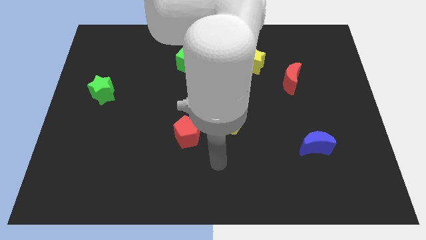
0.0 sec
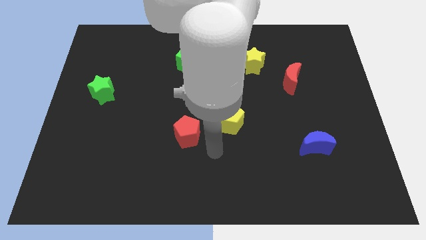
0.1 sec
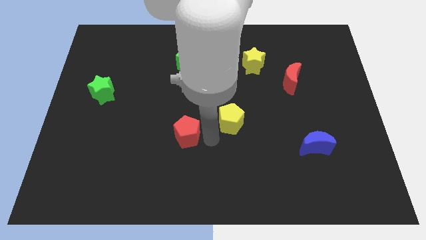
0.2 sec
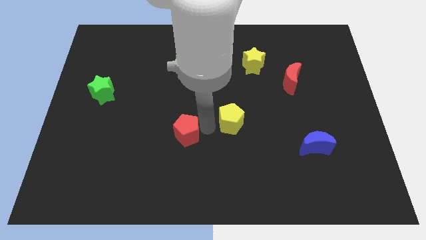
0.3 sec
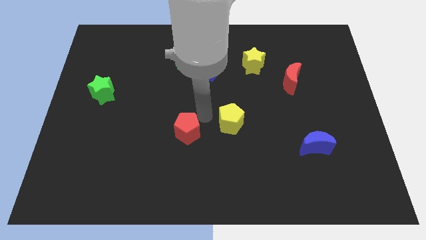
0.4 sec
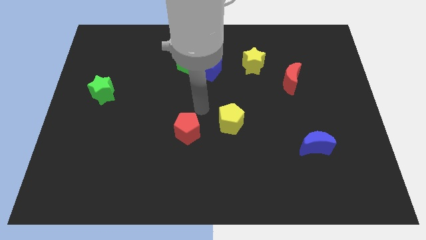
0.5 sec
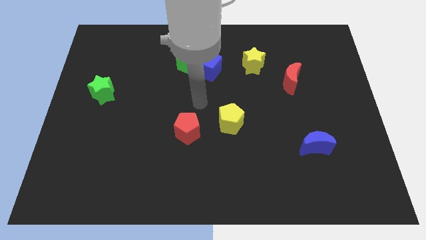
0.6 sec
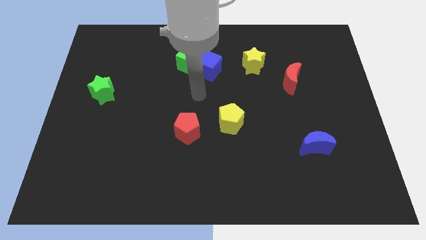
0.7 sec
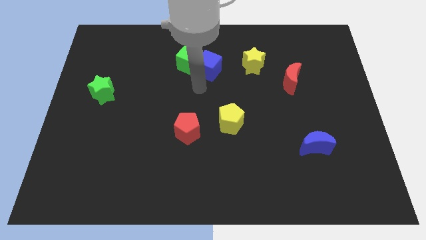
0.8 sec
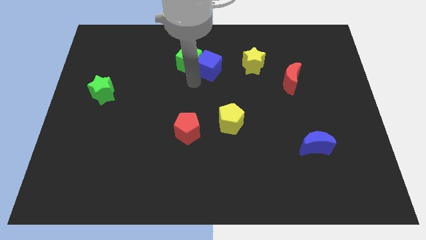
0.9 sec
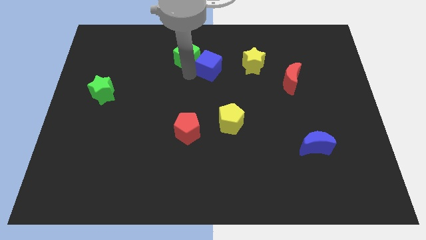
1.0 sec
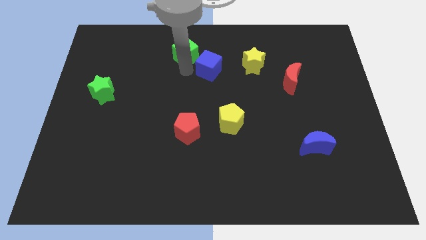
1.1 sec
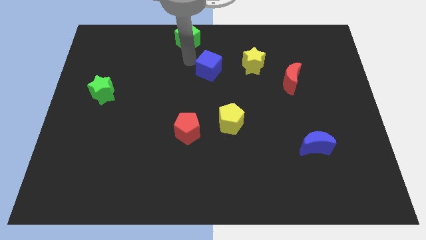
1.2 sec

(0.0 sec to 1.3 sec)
pull the blue cube apart from the green cube

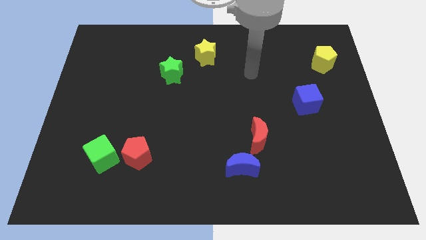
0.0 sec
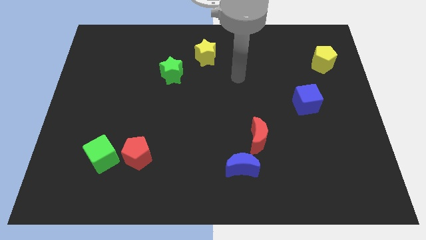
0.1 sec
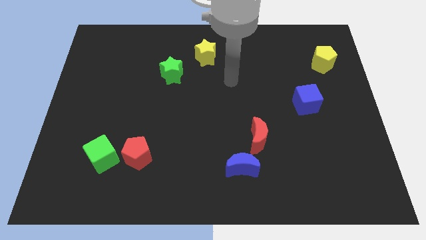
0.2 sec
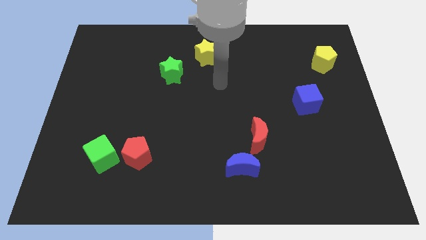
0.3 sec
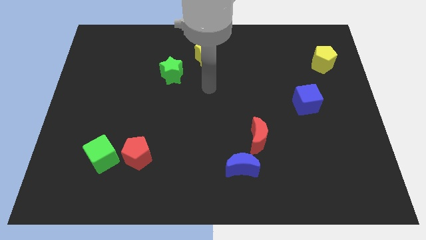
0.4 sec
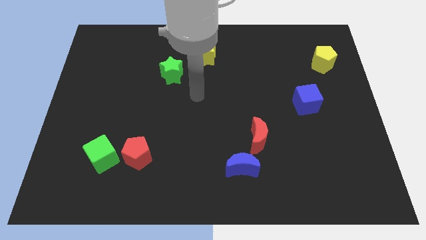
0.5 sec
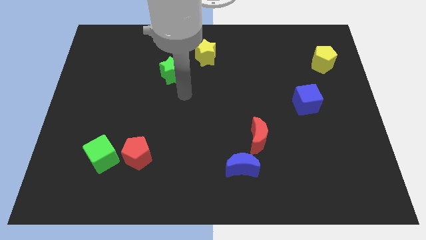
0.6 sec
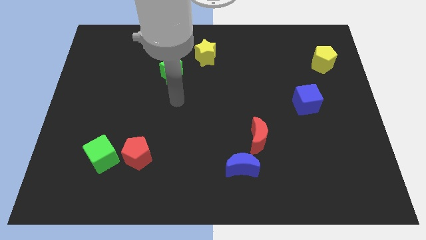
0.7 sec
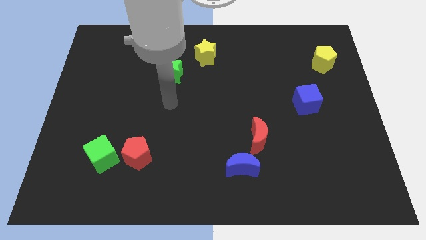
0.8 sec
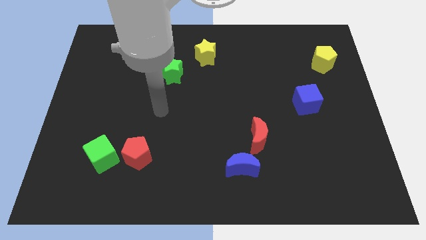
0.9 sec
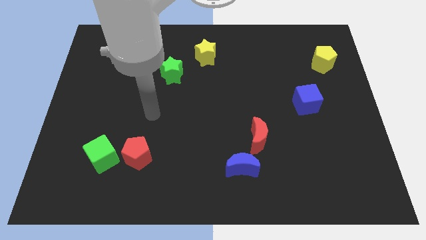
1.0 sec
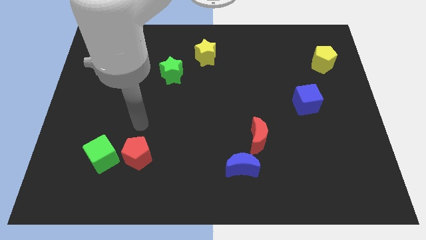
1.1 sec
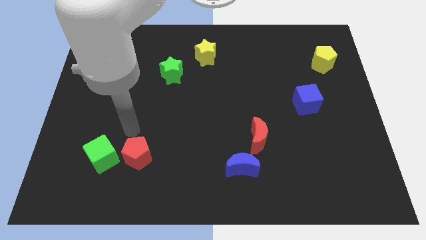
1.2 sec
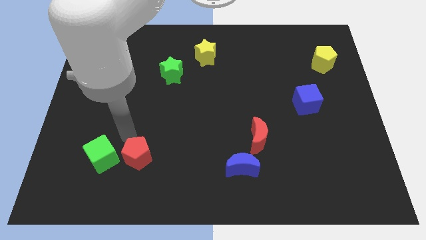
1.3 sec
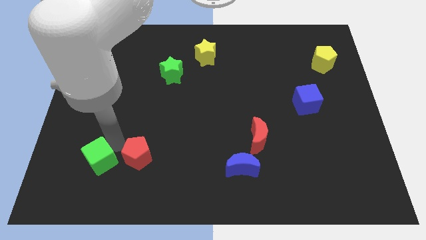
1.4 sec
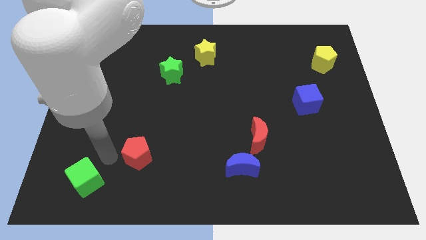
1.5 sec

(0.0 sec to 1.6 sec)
separate the red pentagon from the green cube

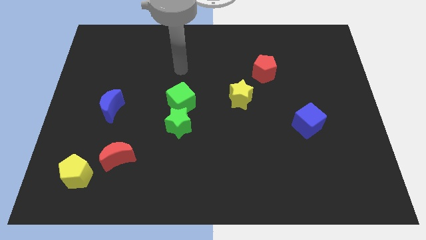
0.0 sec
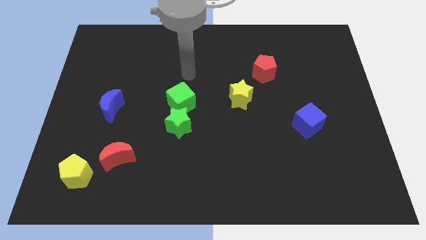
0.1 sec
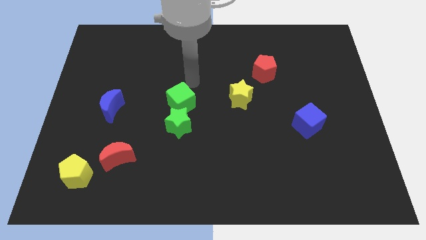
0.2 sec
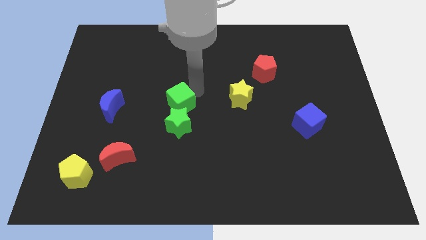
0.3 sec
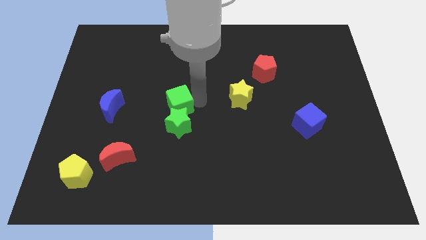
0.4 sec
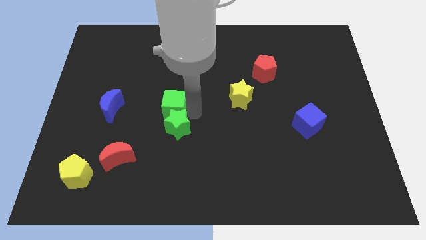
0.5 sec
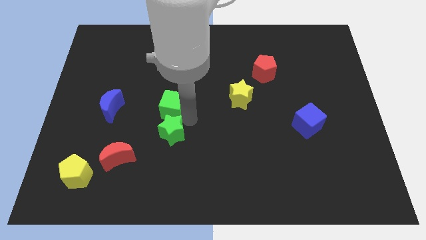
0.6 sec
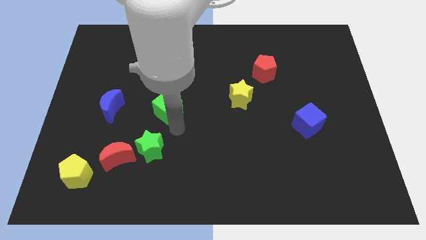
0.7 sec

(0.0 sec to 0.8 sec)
separate the green cube from the green star

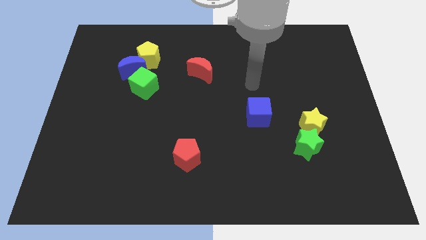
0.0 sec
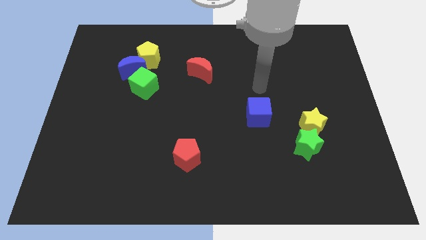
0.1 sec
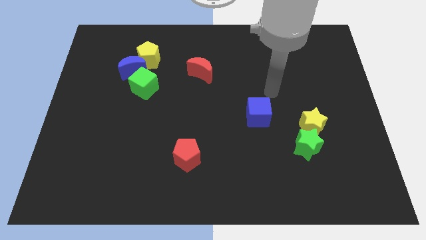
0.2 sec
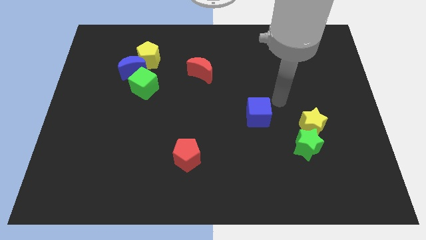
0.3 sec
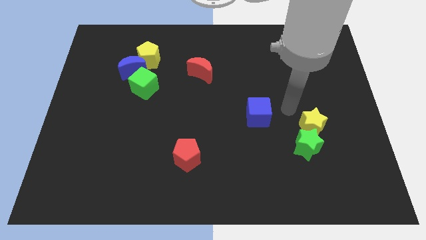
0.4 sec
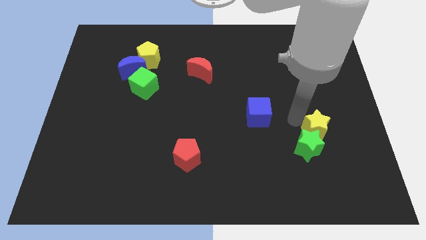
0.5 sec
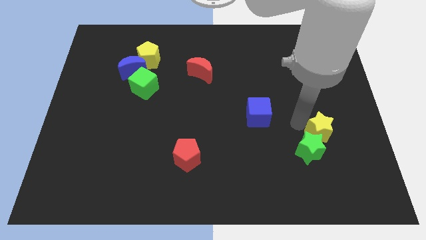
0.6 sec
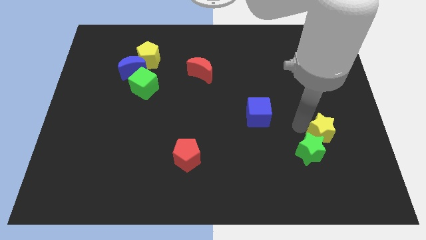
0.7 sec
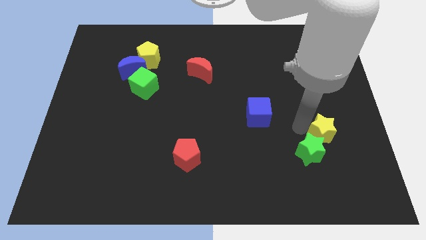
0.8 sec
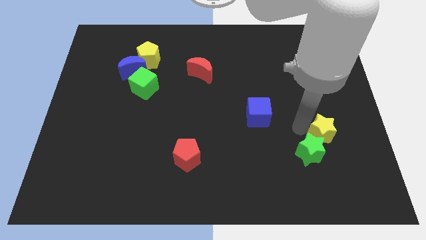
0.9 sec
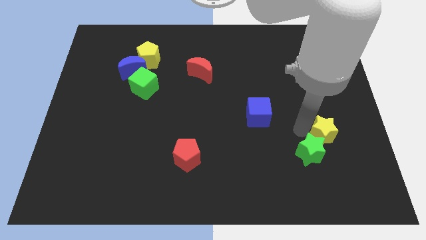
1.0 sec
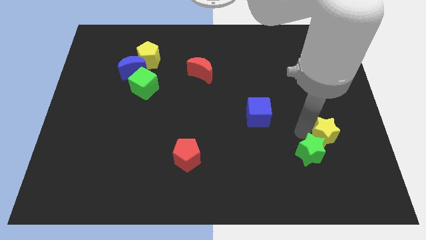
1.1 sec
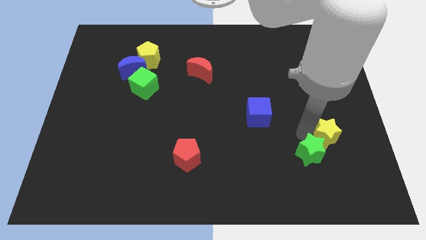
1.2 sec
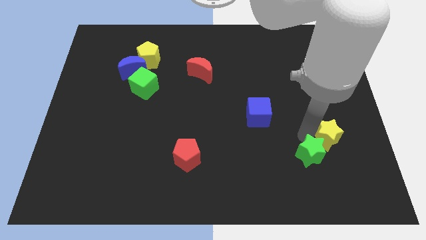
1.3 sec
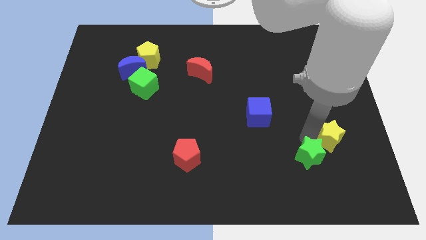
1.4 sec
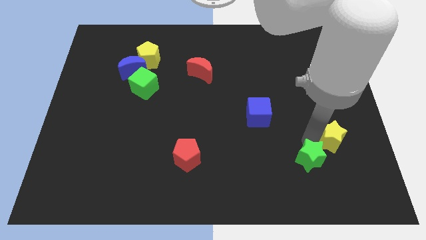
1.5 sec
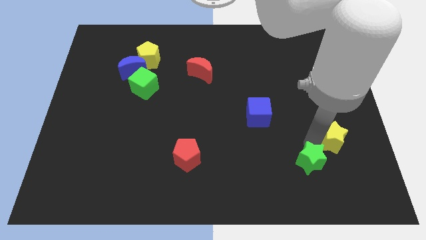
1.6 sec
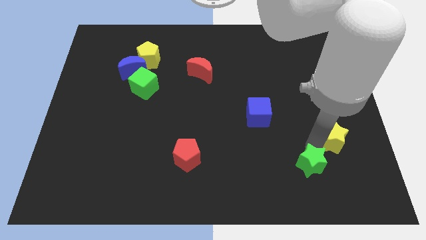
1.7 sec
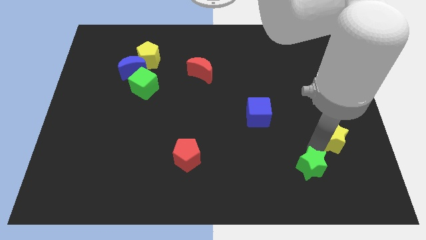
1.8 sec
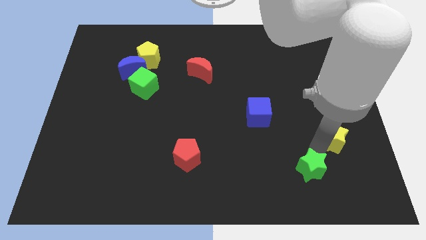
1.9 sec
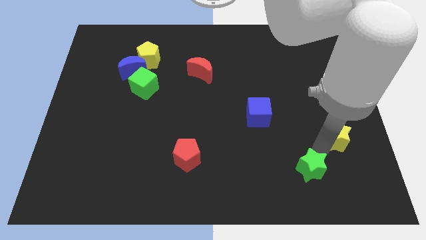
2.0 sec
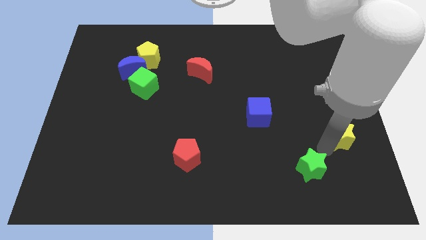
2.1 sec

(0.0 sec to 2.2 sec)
pull the green star apart from the yellow star

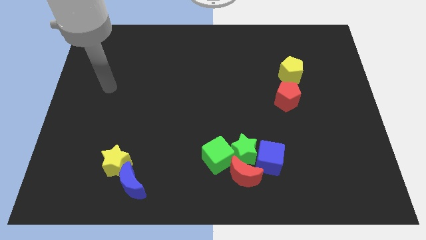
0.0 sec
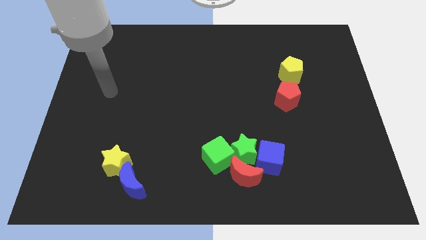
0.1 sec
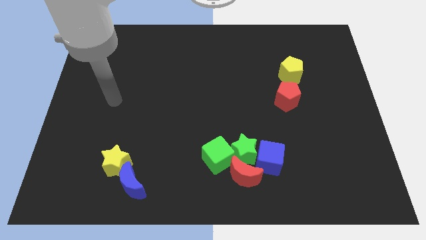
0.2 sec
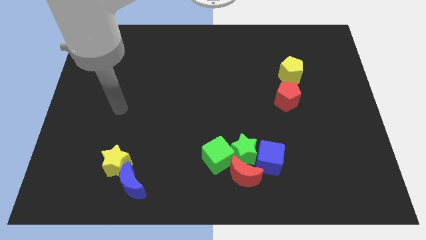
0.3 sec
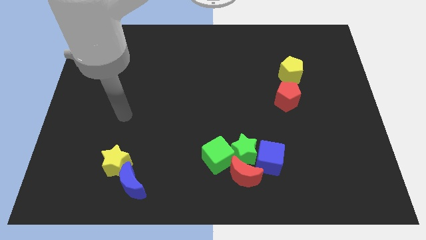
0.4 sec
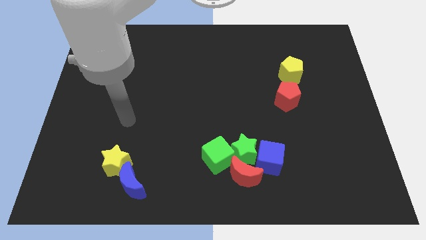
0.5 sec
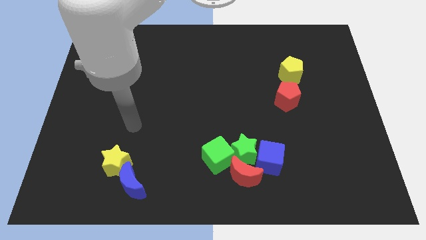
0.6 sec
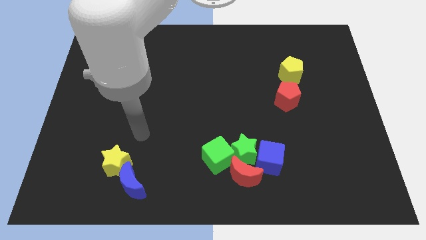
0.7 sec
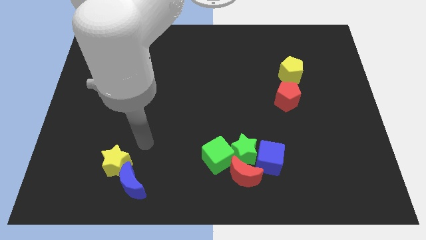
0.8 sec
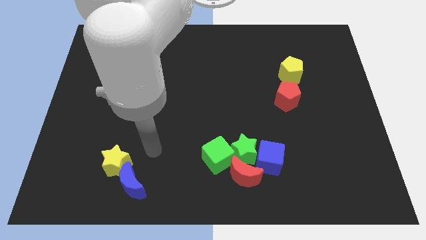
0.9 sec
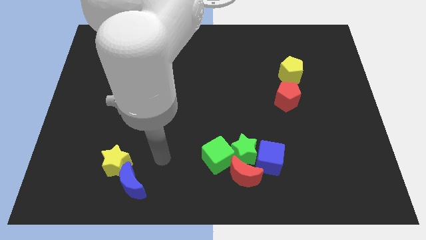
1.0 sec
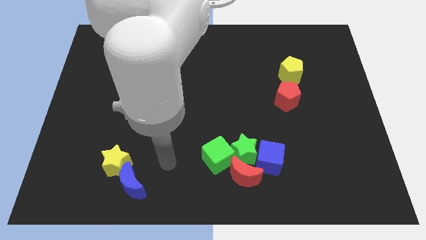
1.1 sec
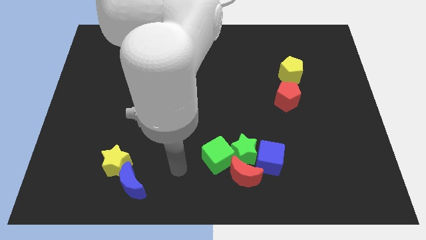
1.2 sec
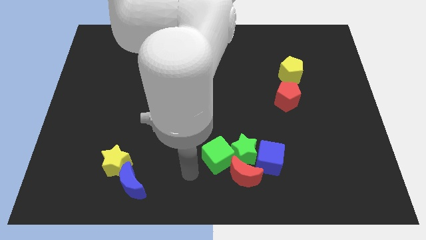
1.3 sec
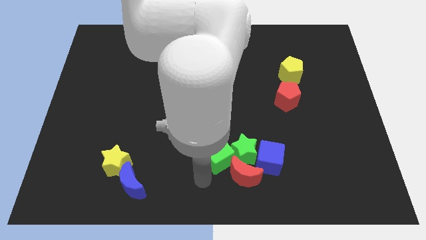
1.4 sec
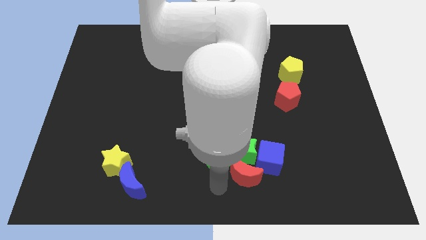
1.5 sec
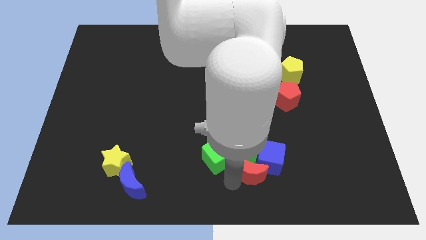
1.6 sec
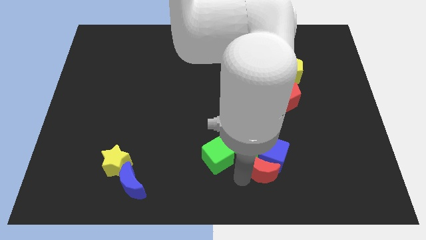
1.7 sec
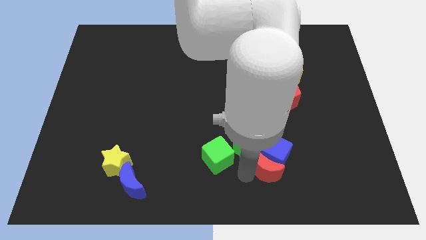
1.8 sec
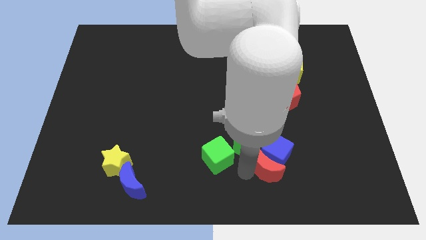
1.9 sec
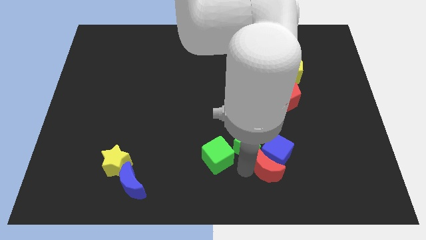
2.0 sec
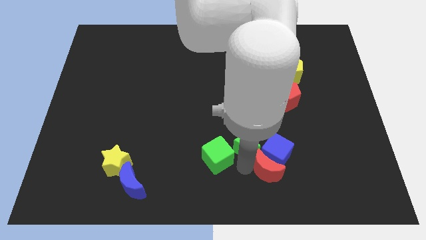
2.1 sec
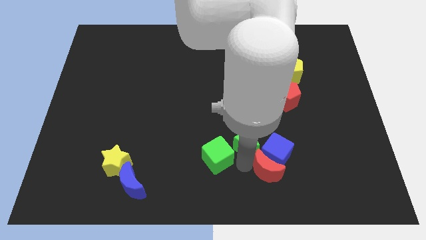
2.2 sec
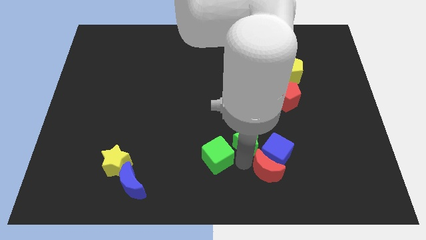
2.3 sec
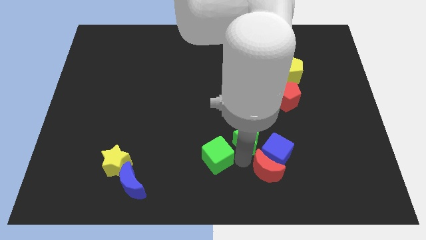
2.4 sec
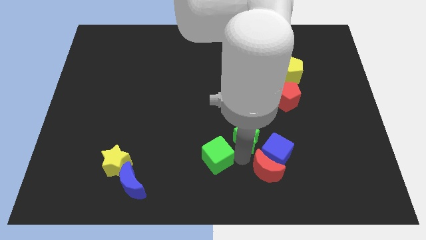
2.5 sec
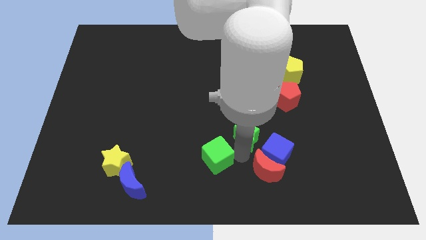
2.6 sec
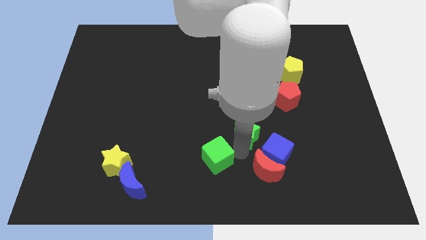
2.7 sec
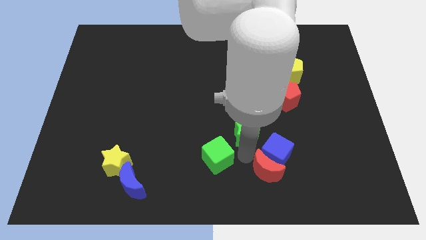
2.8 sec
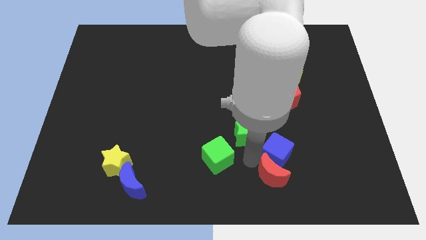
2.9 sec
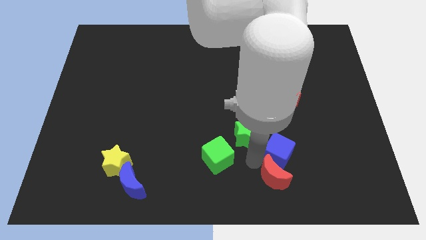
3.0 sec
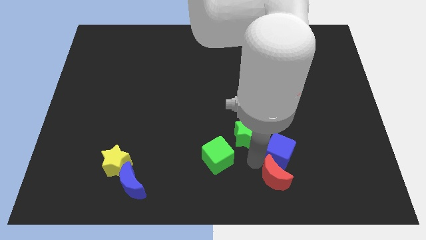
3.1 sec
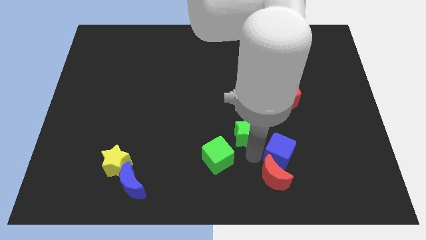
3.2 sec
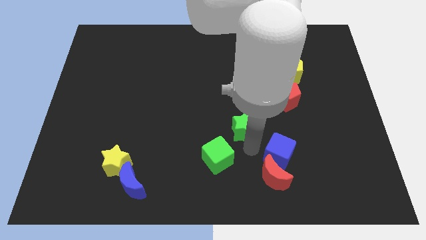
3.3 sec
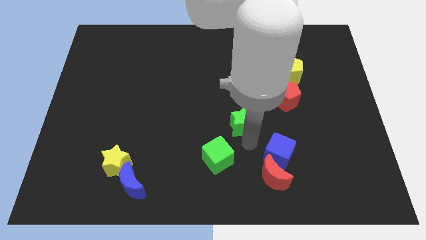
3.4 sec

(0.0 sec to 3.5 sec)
pull the green star apart from the clump
